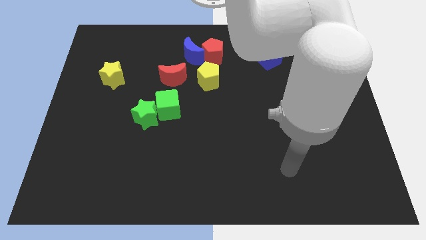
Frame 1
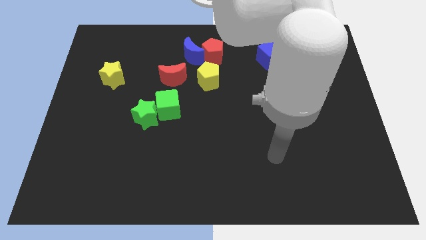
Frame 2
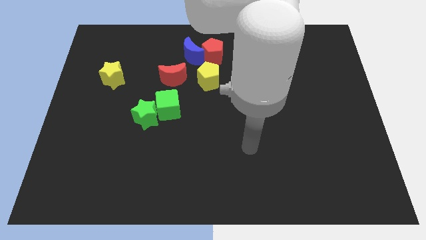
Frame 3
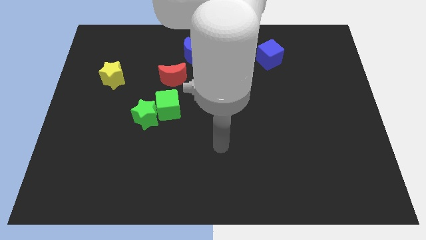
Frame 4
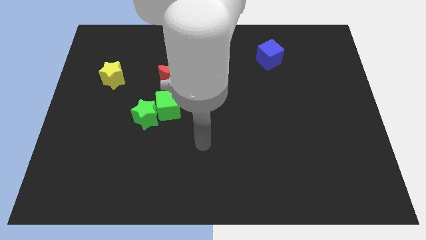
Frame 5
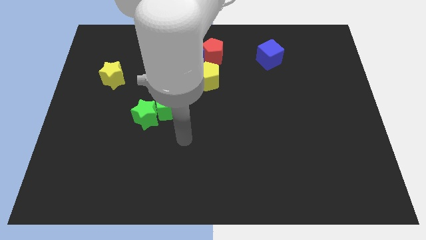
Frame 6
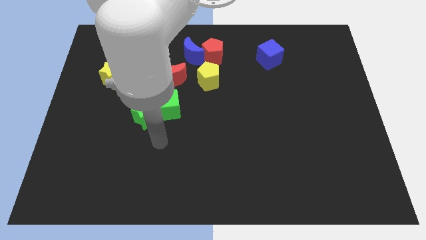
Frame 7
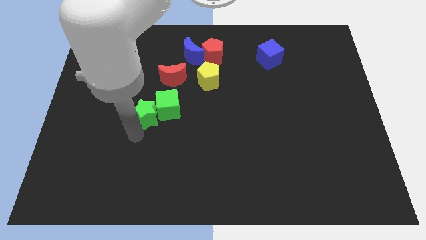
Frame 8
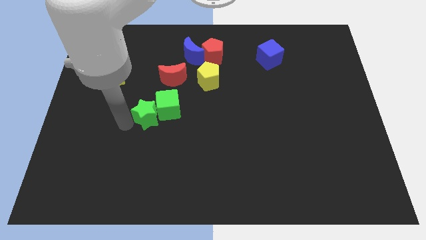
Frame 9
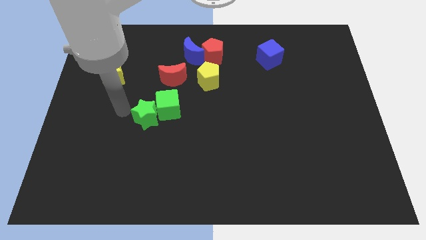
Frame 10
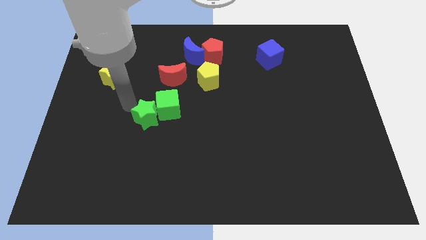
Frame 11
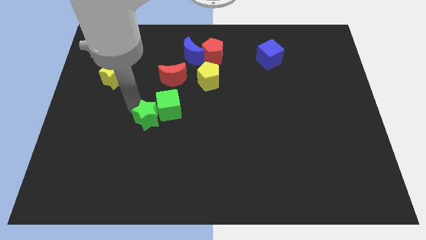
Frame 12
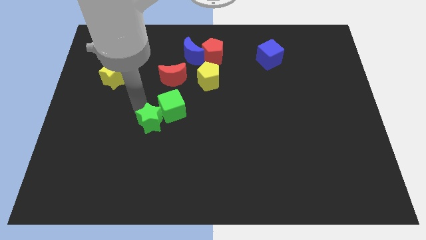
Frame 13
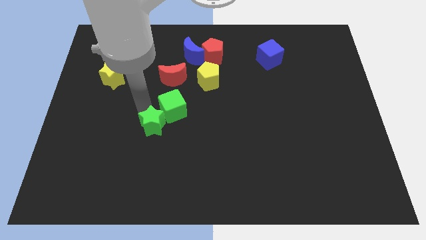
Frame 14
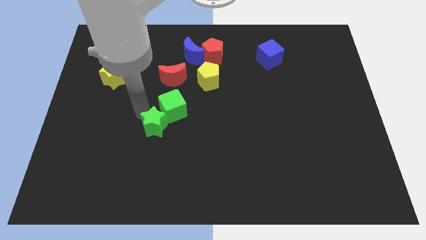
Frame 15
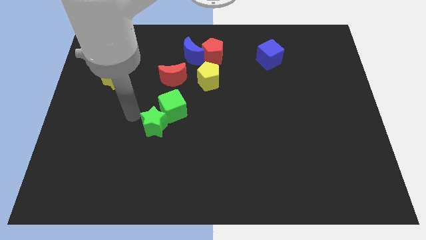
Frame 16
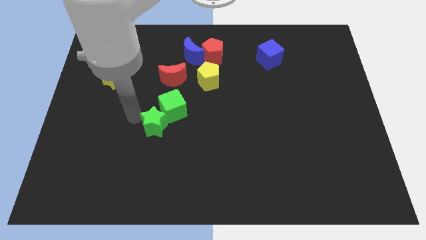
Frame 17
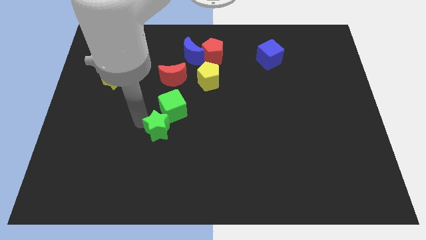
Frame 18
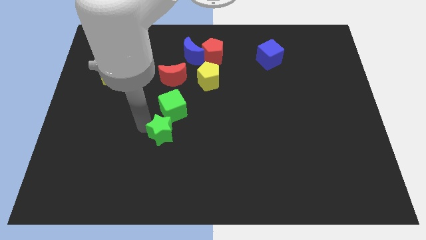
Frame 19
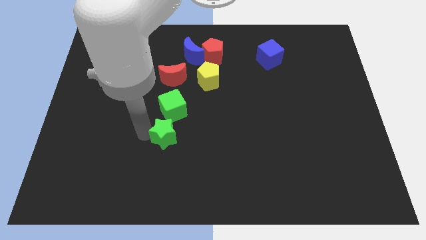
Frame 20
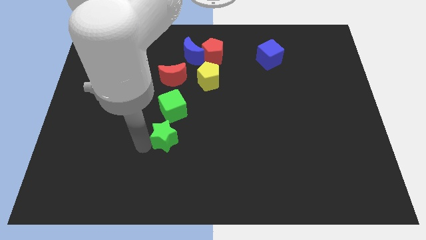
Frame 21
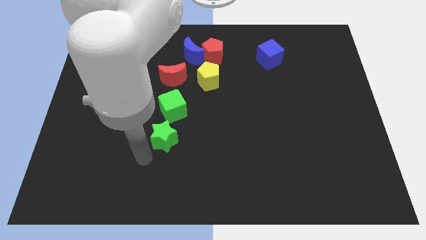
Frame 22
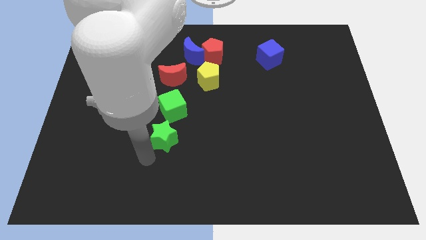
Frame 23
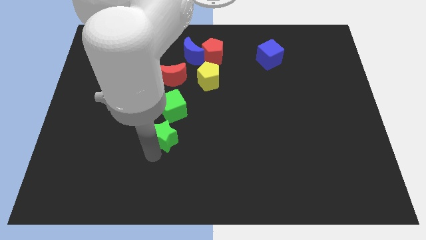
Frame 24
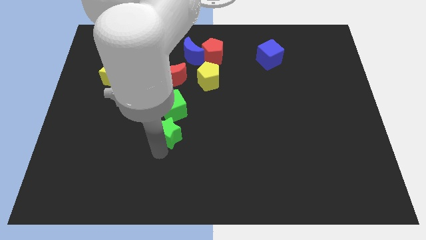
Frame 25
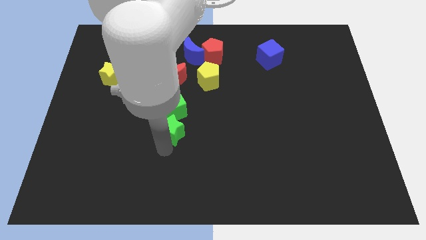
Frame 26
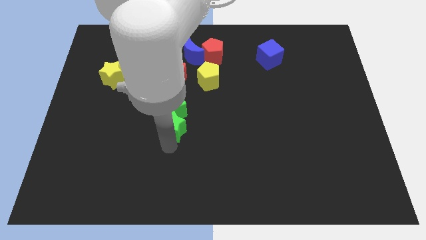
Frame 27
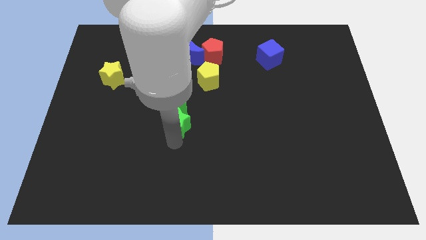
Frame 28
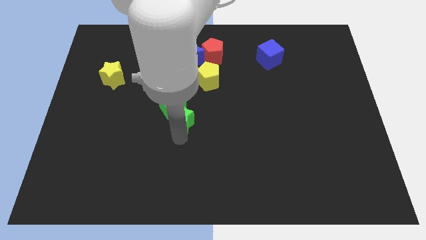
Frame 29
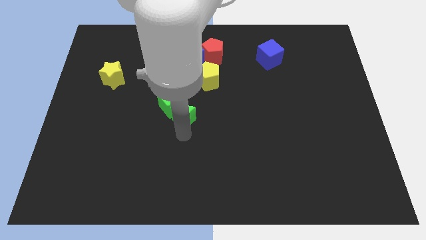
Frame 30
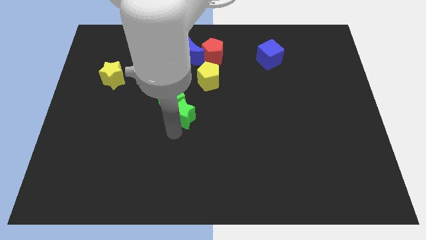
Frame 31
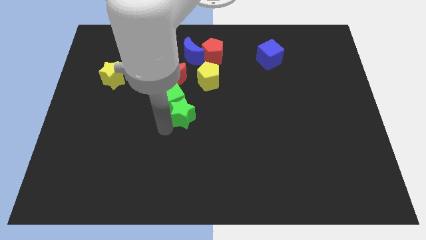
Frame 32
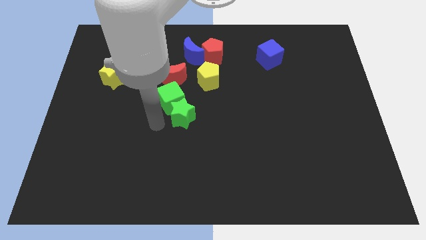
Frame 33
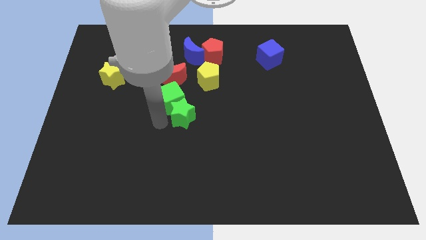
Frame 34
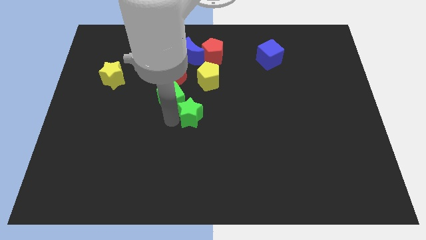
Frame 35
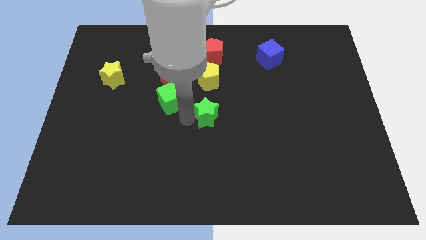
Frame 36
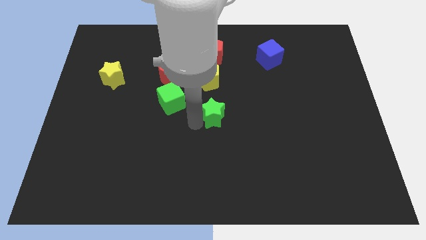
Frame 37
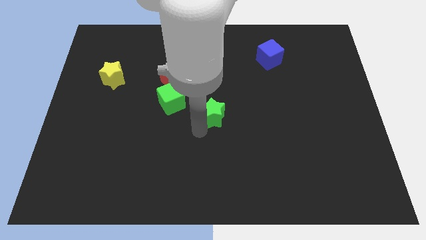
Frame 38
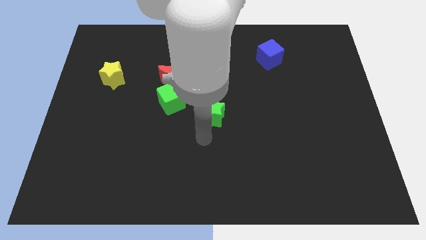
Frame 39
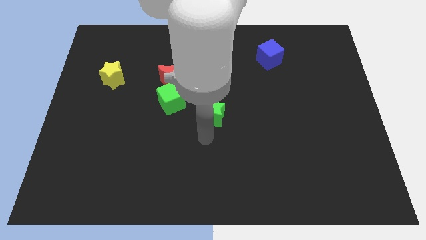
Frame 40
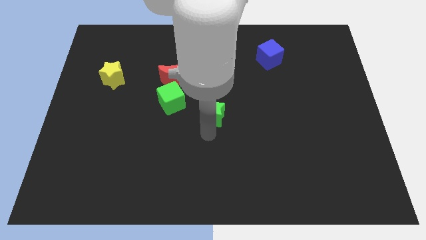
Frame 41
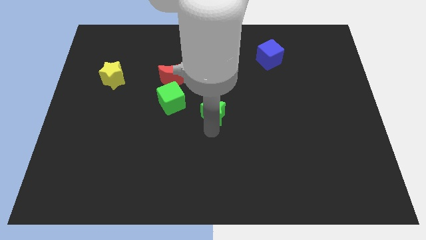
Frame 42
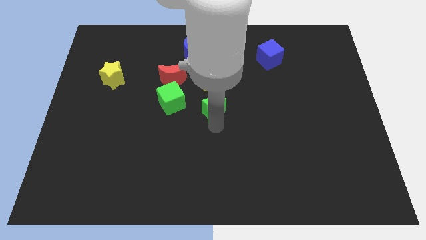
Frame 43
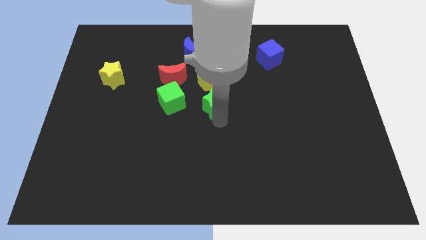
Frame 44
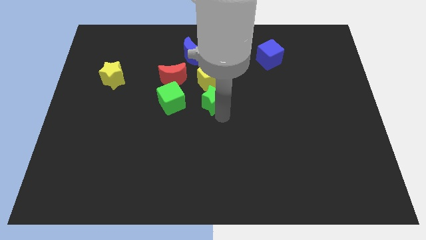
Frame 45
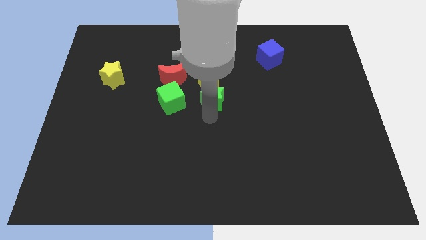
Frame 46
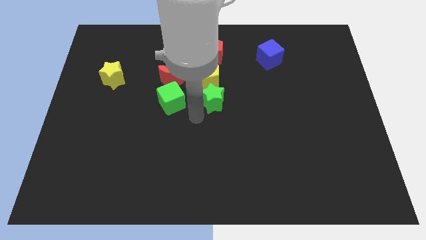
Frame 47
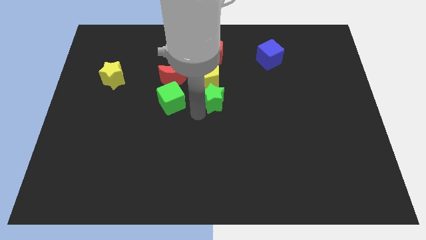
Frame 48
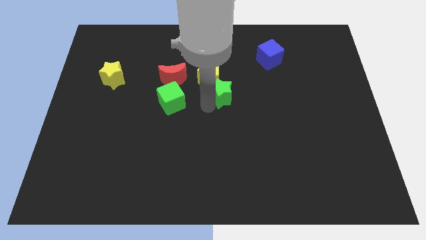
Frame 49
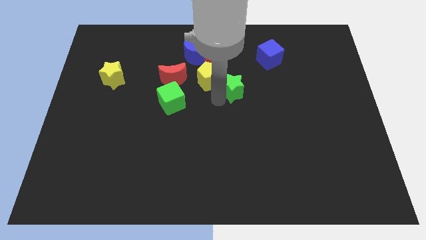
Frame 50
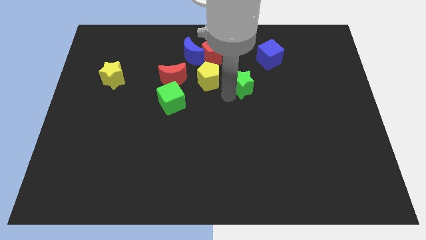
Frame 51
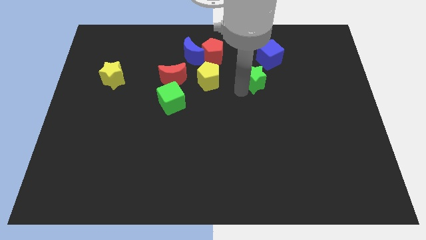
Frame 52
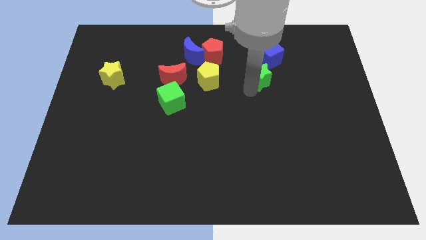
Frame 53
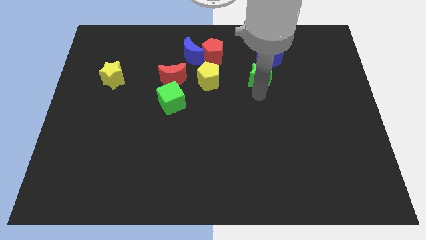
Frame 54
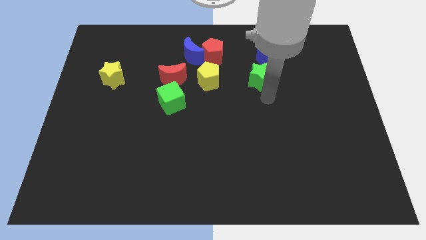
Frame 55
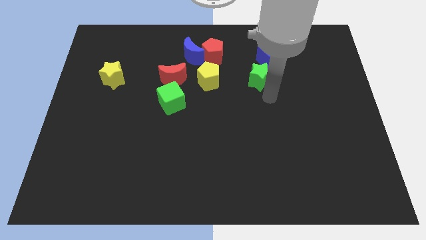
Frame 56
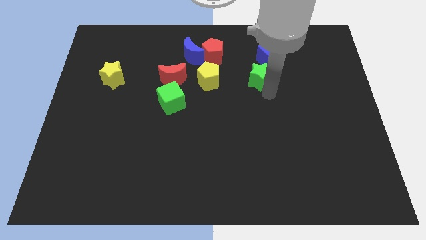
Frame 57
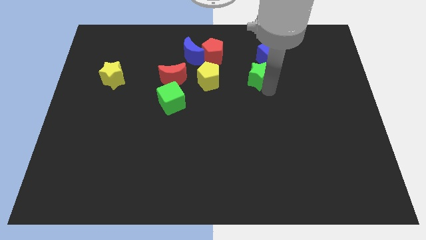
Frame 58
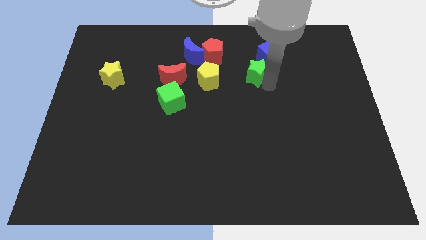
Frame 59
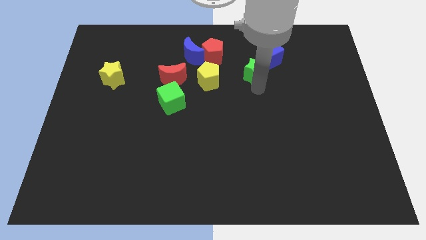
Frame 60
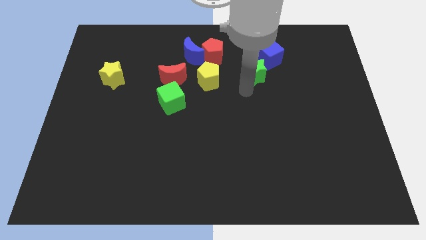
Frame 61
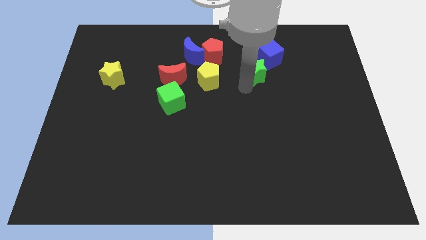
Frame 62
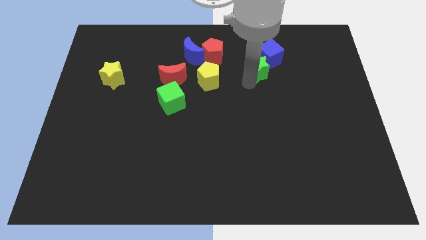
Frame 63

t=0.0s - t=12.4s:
move the green star close to the blue cube

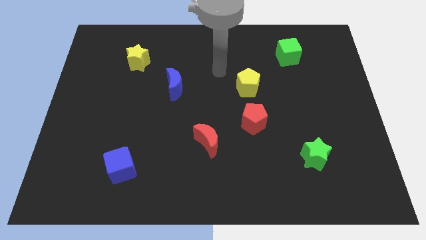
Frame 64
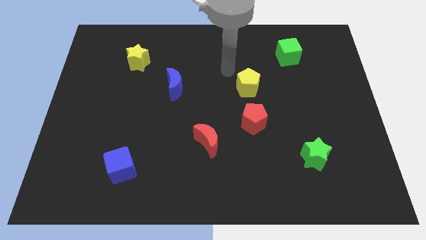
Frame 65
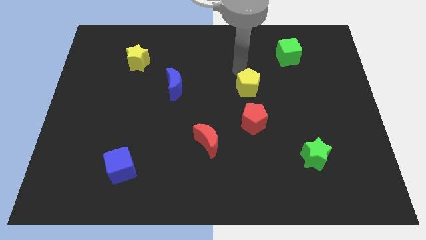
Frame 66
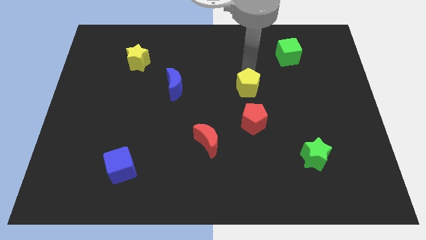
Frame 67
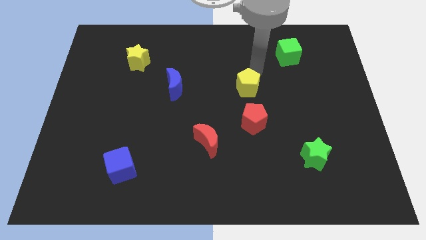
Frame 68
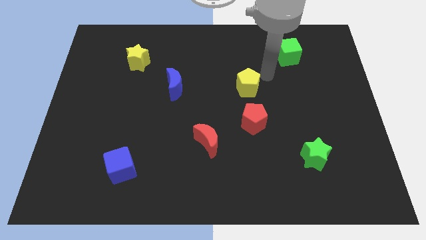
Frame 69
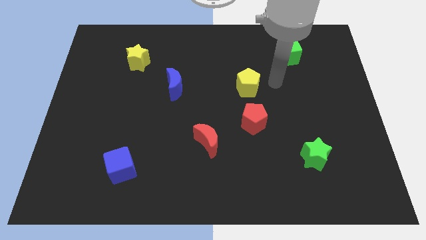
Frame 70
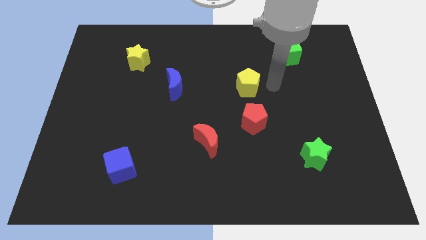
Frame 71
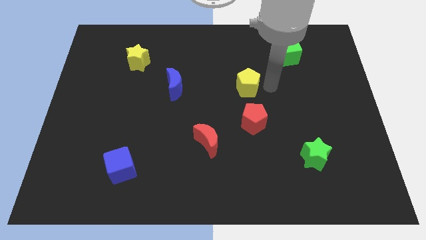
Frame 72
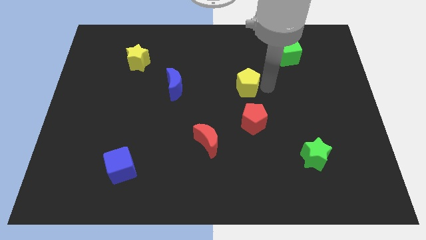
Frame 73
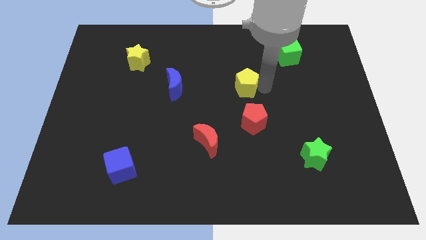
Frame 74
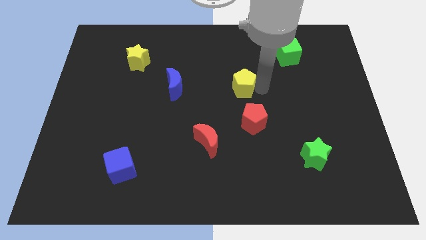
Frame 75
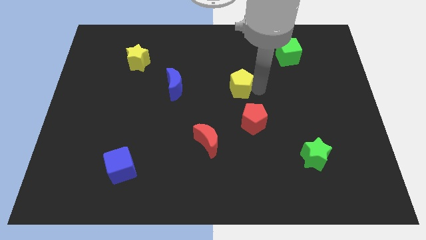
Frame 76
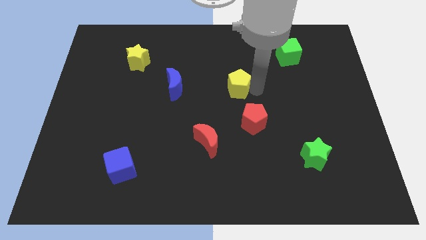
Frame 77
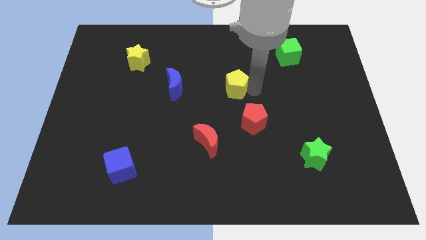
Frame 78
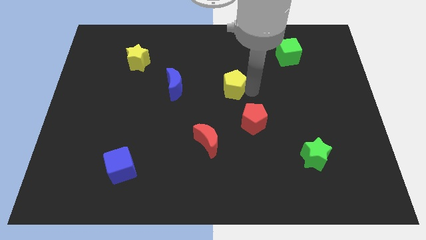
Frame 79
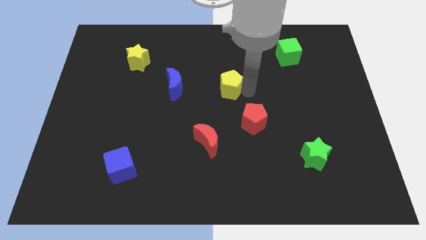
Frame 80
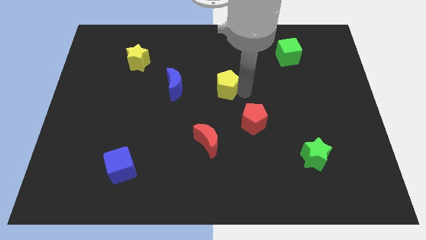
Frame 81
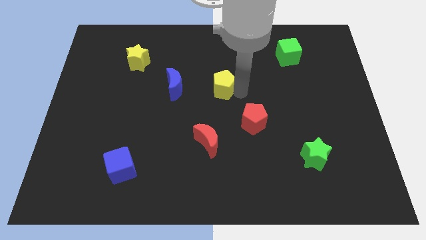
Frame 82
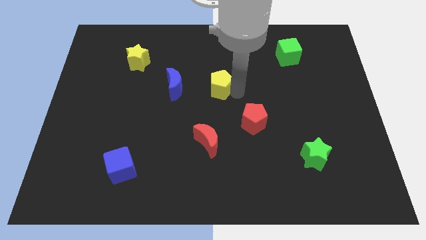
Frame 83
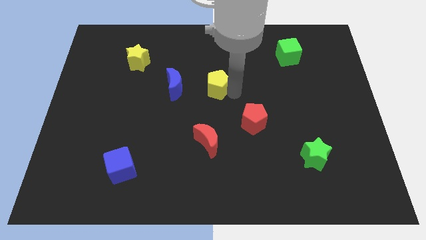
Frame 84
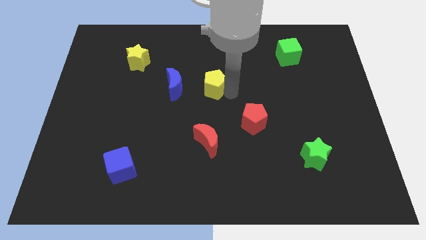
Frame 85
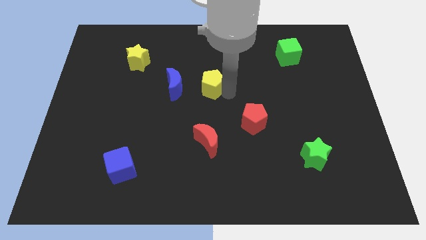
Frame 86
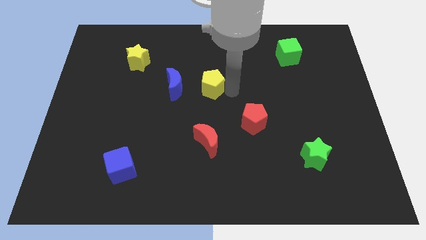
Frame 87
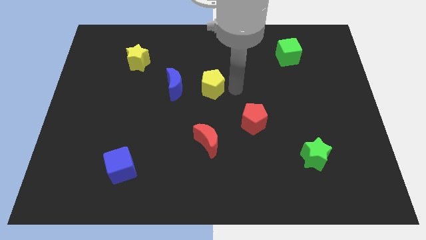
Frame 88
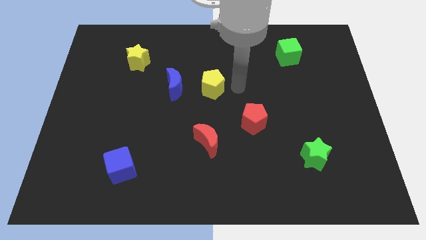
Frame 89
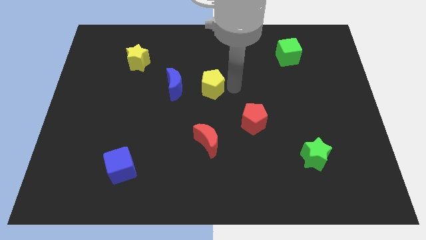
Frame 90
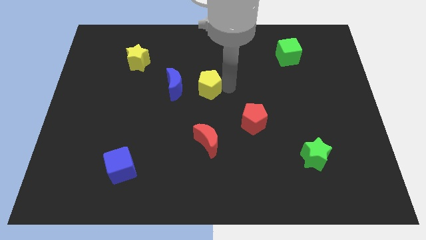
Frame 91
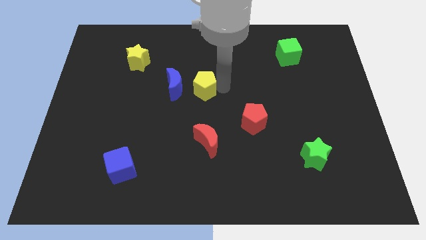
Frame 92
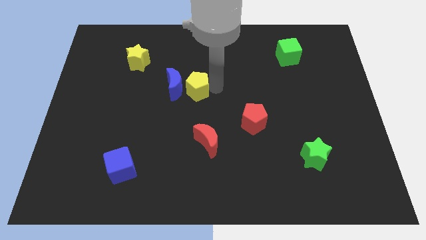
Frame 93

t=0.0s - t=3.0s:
put the yellow pentagon close to the blue moon
